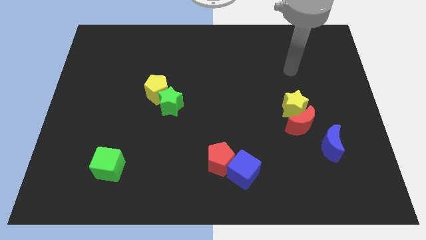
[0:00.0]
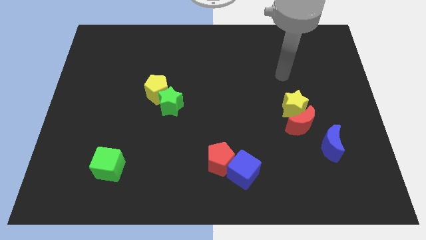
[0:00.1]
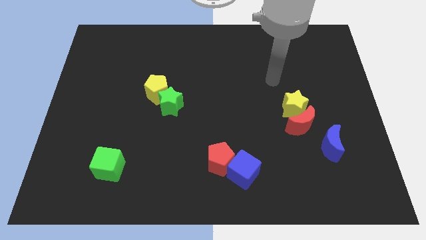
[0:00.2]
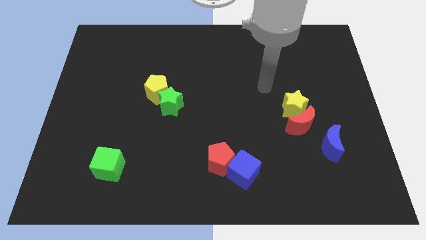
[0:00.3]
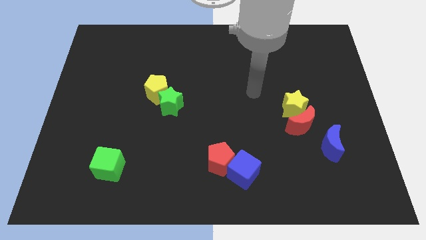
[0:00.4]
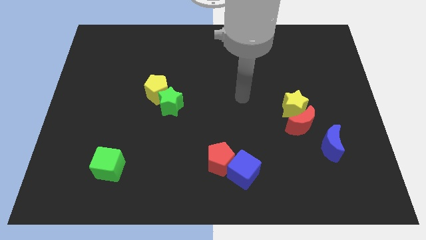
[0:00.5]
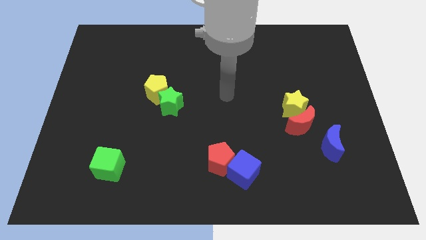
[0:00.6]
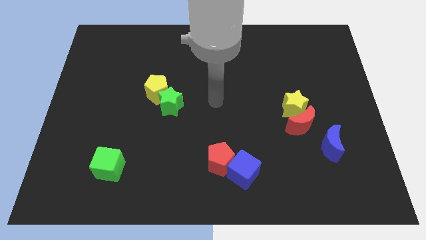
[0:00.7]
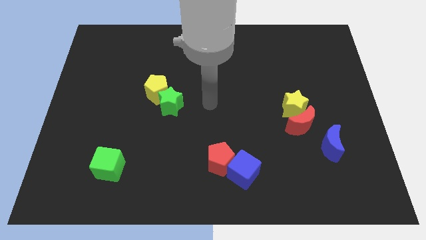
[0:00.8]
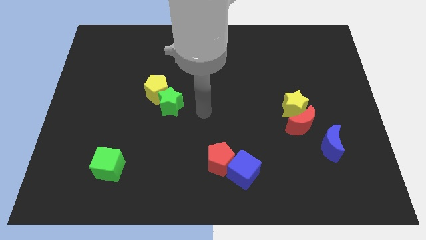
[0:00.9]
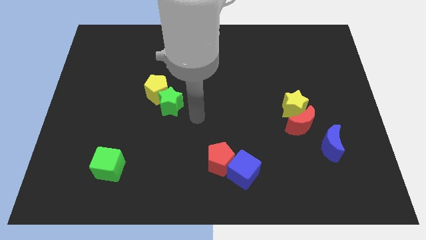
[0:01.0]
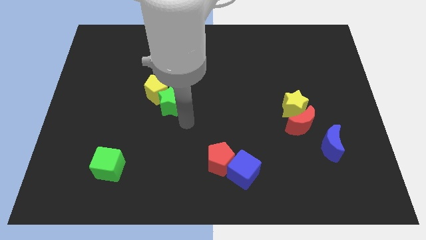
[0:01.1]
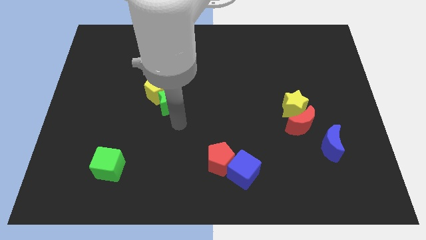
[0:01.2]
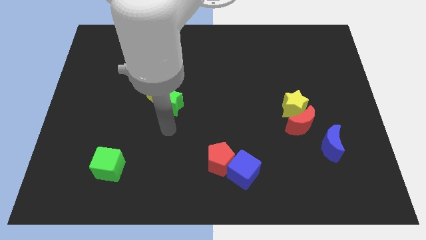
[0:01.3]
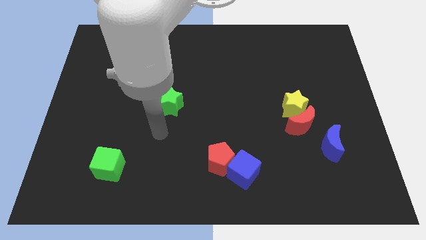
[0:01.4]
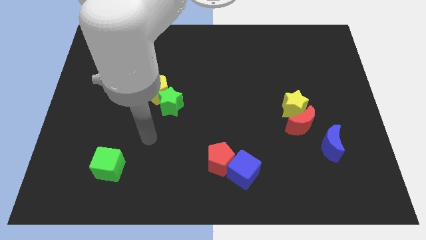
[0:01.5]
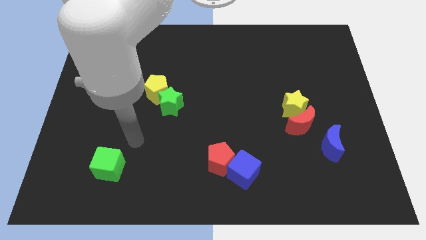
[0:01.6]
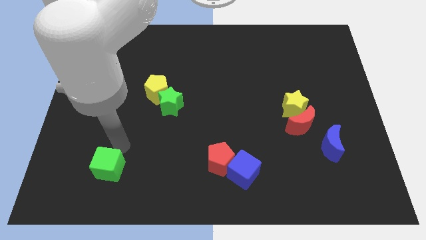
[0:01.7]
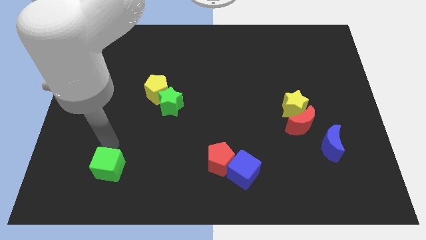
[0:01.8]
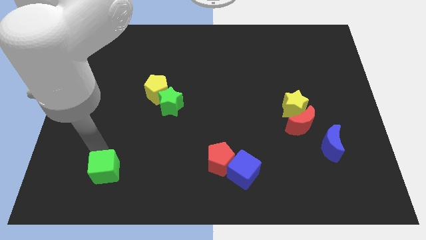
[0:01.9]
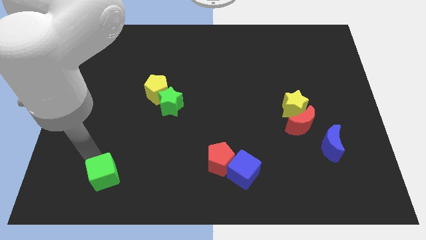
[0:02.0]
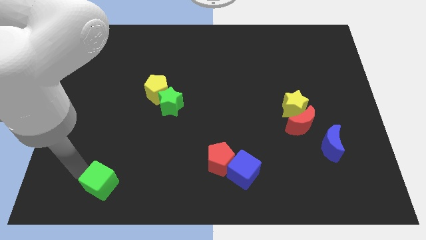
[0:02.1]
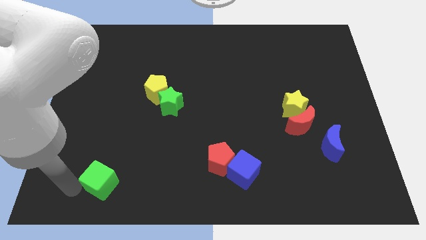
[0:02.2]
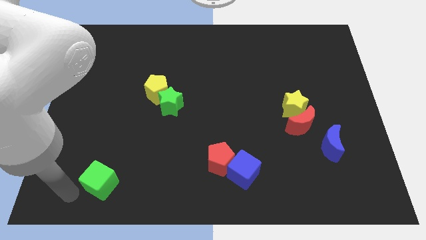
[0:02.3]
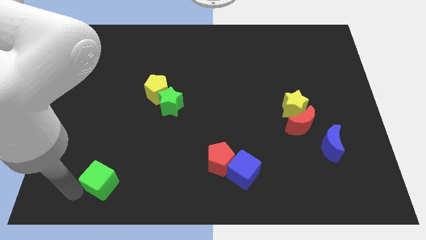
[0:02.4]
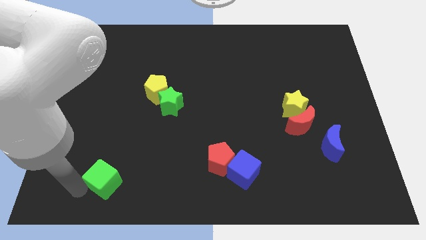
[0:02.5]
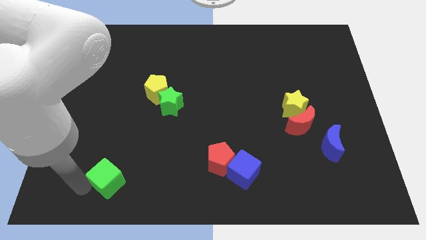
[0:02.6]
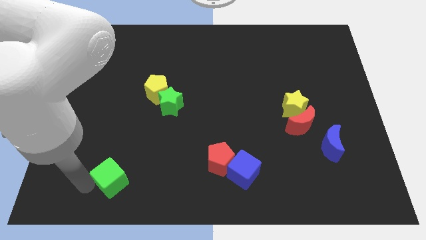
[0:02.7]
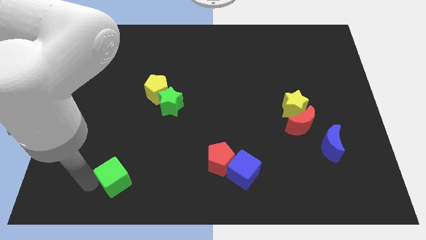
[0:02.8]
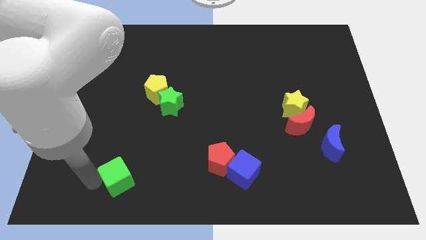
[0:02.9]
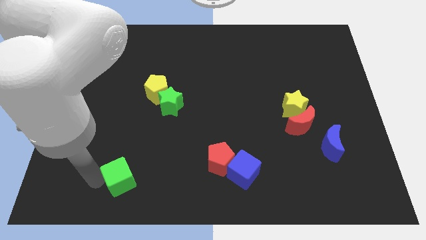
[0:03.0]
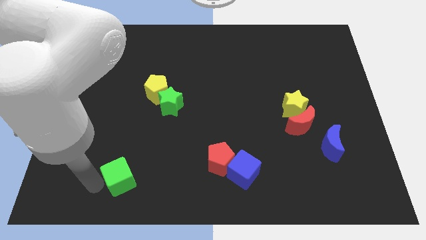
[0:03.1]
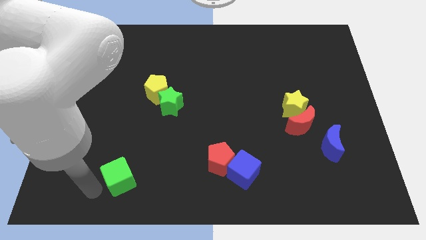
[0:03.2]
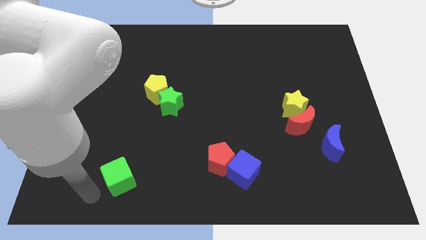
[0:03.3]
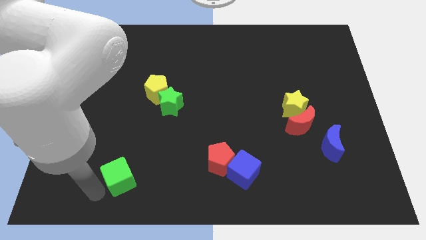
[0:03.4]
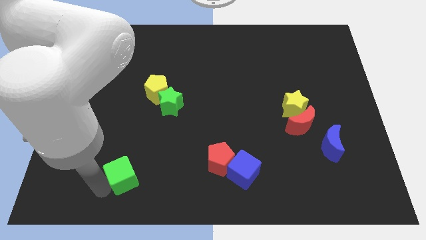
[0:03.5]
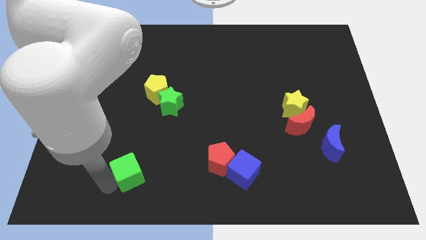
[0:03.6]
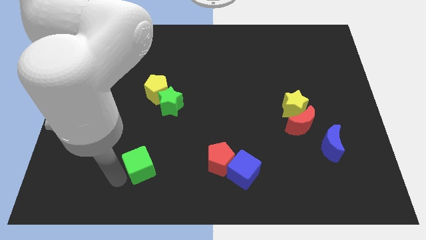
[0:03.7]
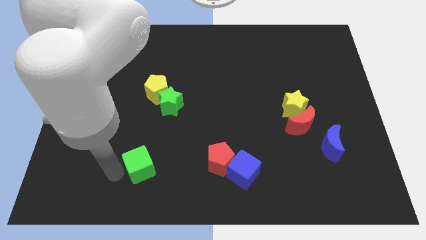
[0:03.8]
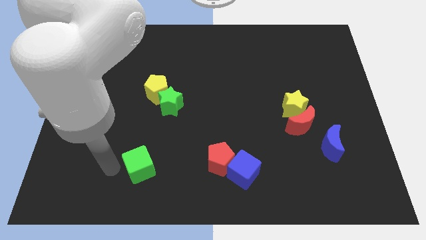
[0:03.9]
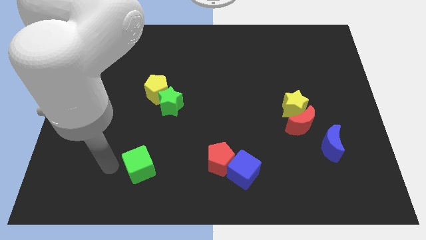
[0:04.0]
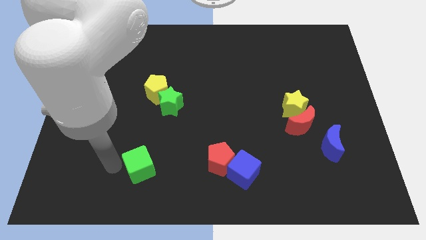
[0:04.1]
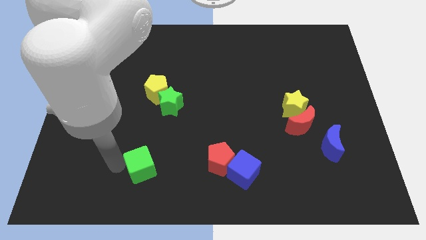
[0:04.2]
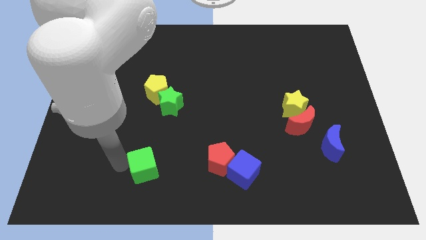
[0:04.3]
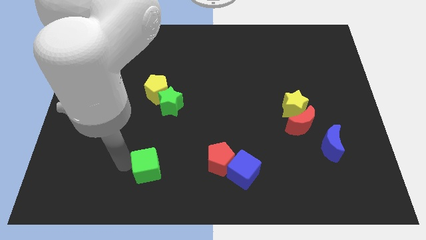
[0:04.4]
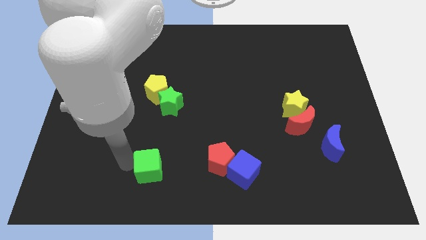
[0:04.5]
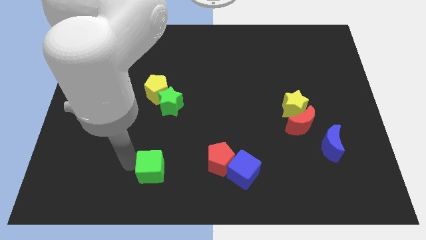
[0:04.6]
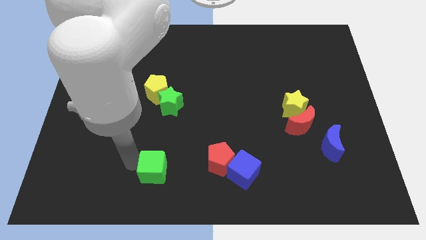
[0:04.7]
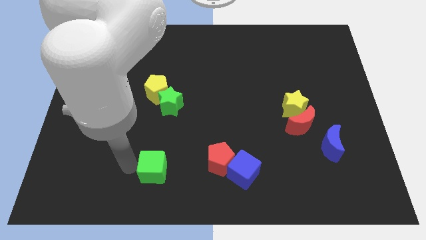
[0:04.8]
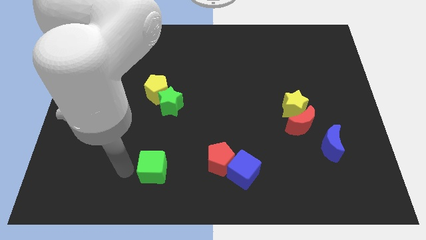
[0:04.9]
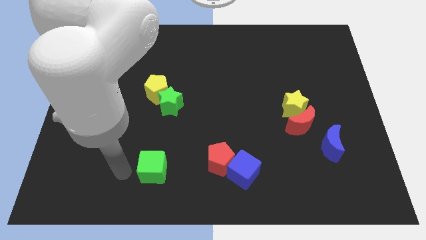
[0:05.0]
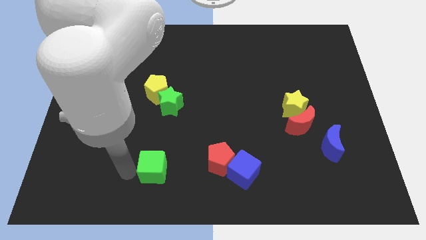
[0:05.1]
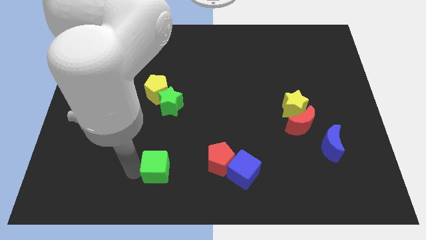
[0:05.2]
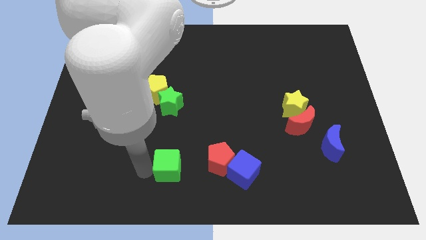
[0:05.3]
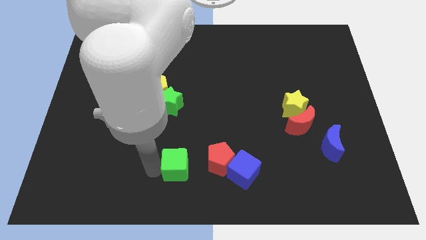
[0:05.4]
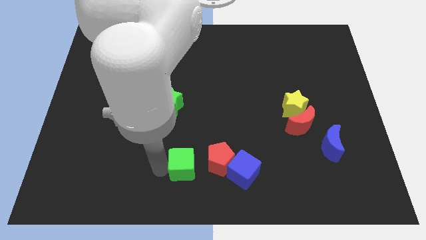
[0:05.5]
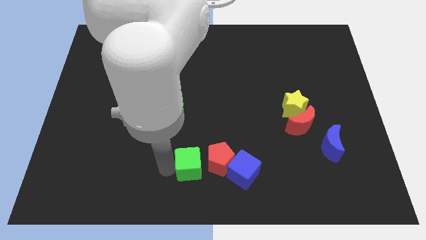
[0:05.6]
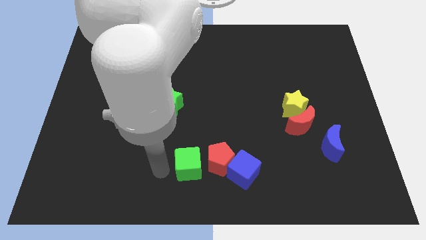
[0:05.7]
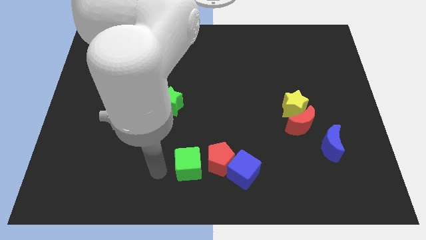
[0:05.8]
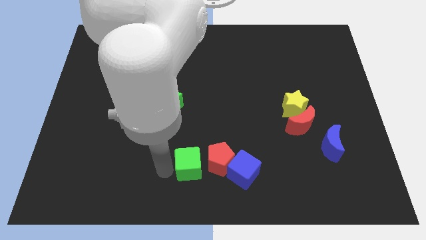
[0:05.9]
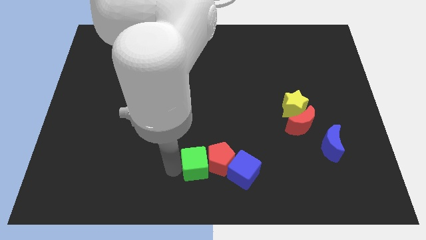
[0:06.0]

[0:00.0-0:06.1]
slide the green cube close to the red pentagon

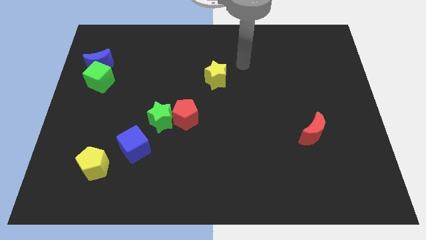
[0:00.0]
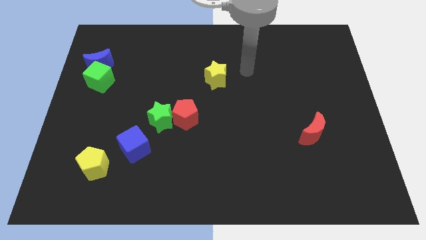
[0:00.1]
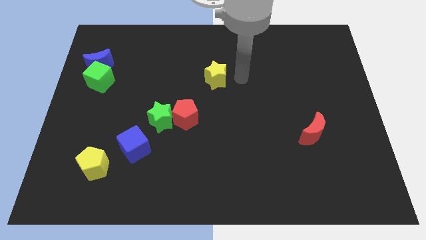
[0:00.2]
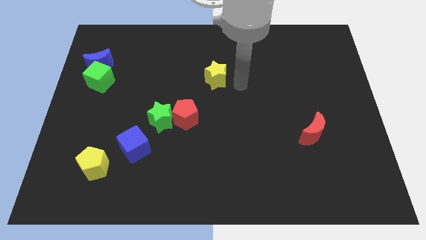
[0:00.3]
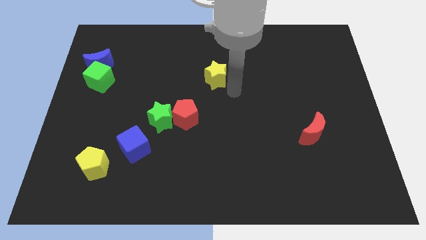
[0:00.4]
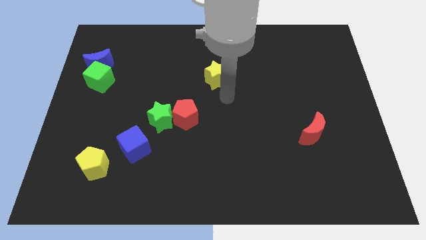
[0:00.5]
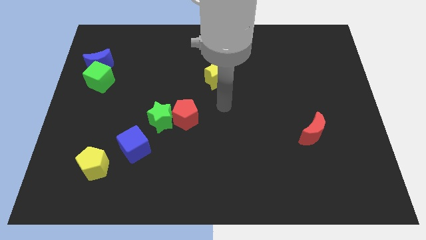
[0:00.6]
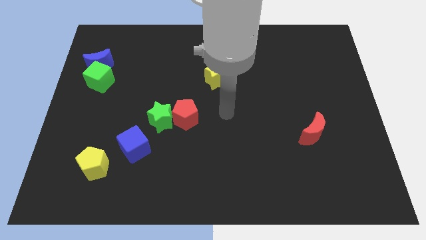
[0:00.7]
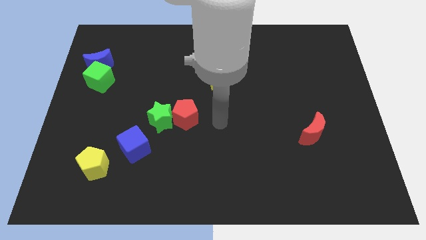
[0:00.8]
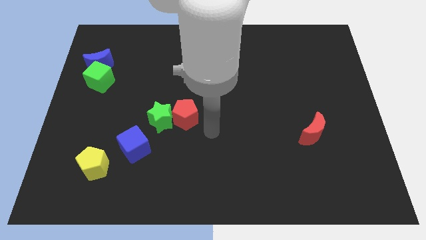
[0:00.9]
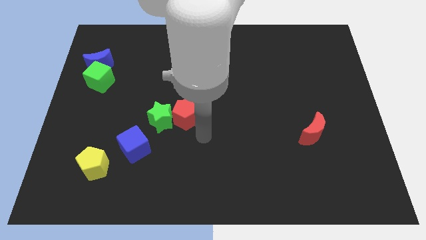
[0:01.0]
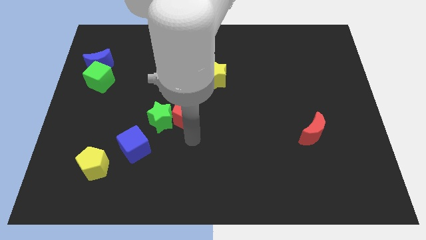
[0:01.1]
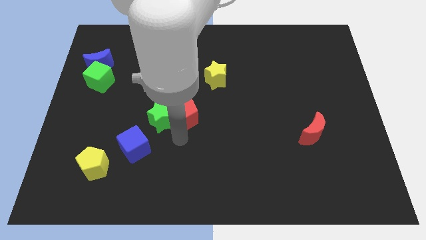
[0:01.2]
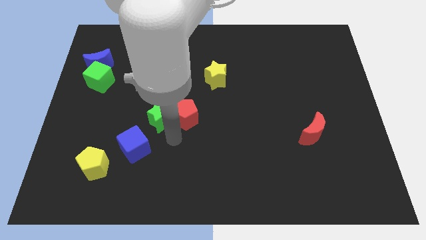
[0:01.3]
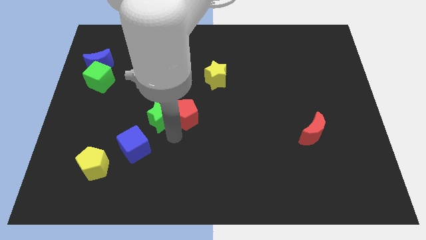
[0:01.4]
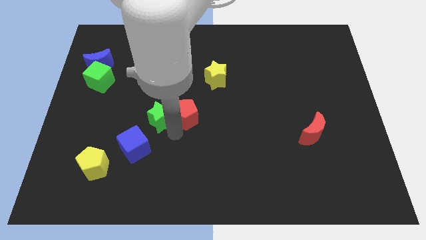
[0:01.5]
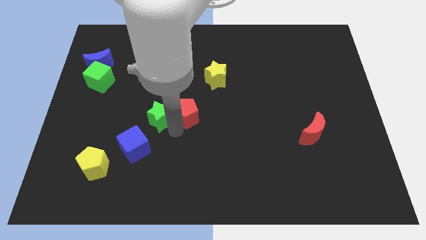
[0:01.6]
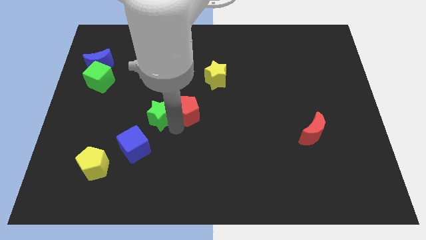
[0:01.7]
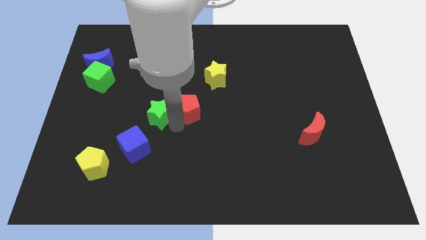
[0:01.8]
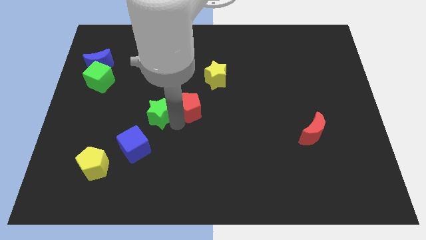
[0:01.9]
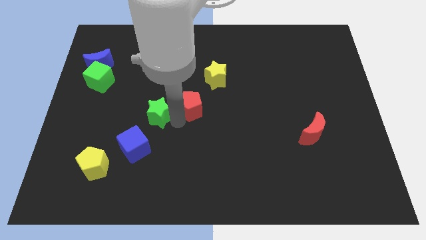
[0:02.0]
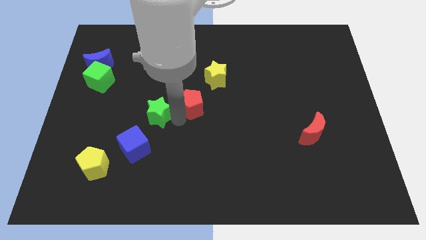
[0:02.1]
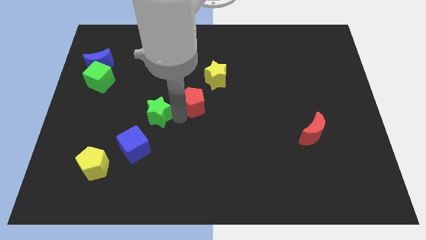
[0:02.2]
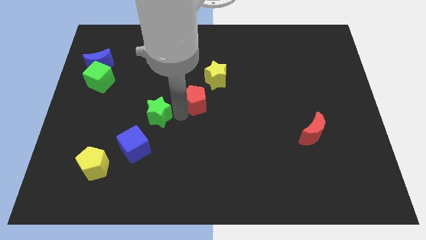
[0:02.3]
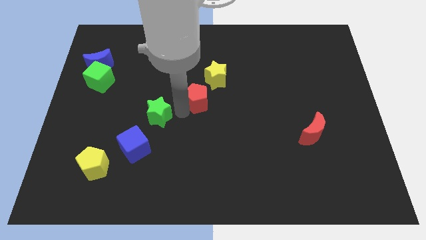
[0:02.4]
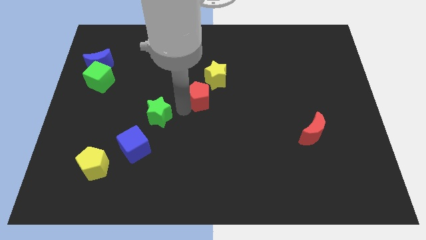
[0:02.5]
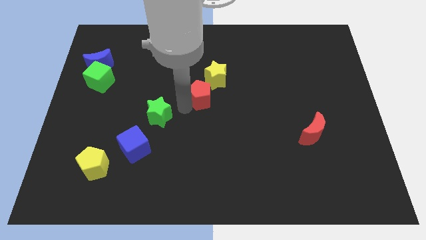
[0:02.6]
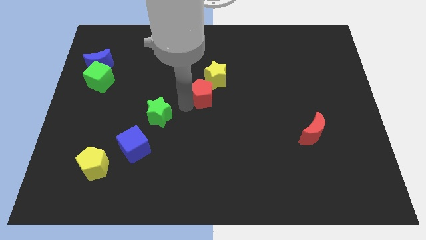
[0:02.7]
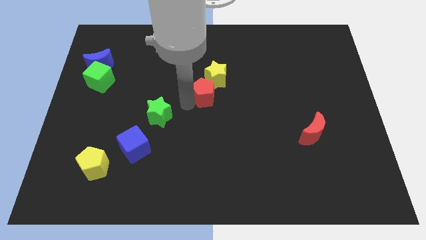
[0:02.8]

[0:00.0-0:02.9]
push the red pentagon towards the yellow star
